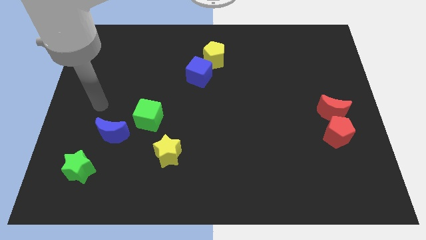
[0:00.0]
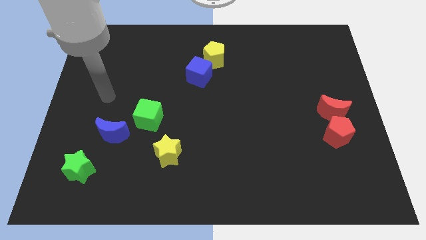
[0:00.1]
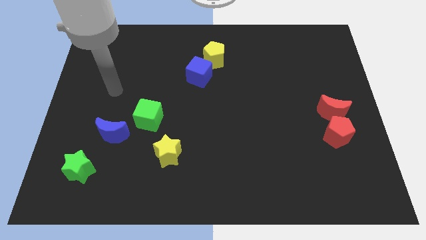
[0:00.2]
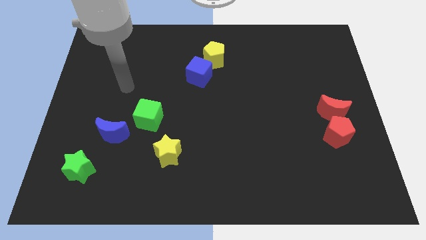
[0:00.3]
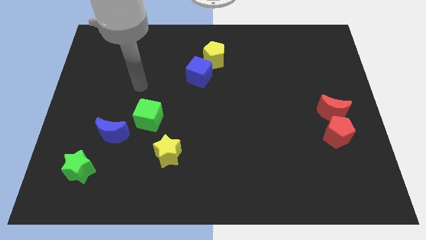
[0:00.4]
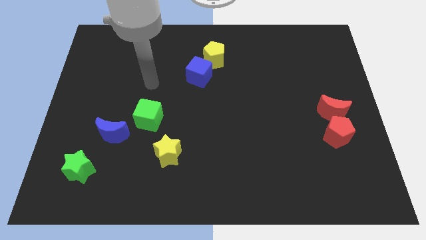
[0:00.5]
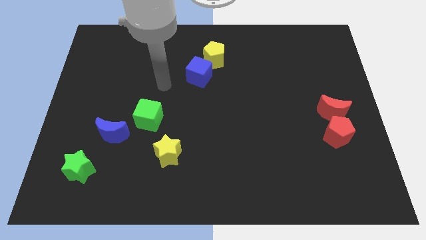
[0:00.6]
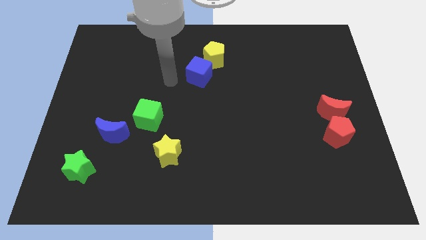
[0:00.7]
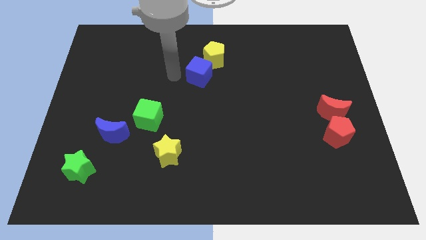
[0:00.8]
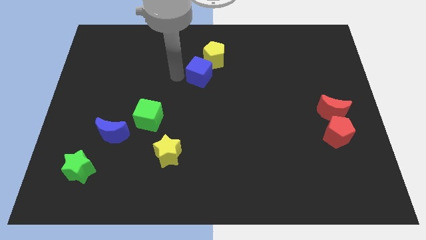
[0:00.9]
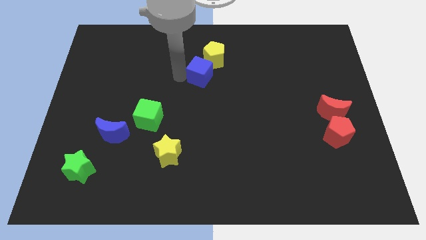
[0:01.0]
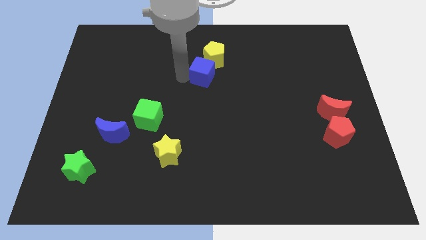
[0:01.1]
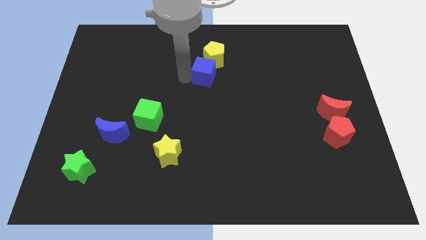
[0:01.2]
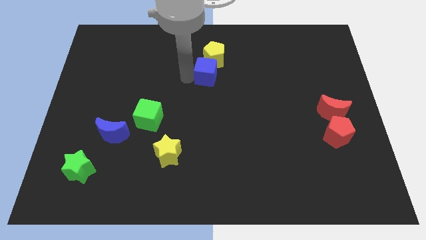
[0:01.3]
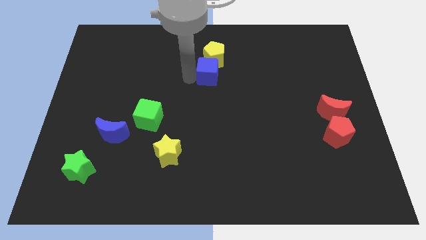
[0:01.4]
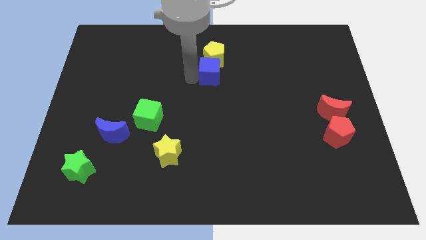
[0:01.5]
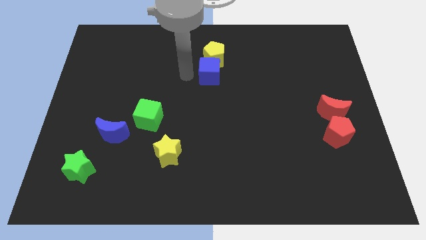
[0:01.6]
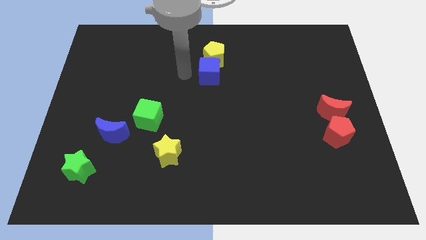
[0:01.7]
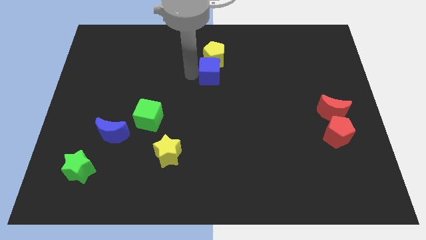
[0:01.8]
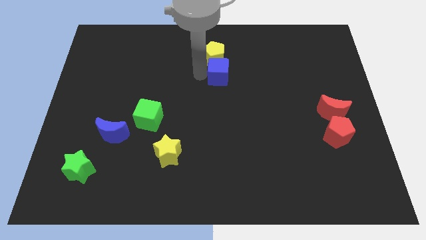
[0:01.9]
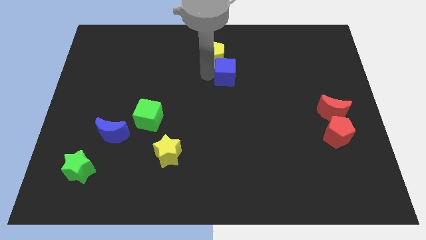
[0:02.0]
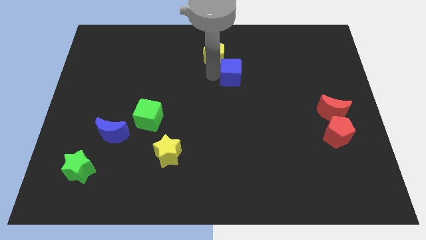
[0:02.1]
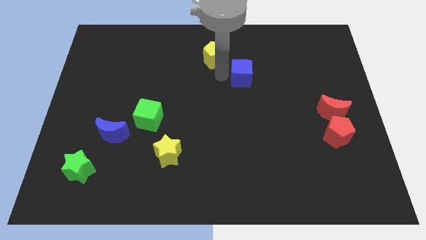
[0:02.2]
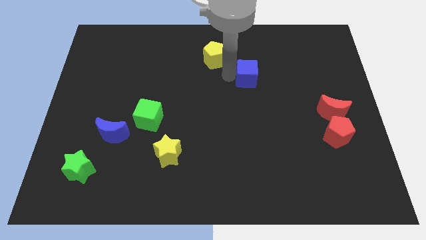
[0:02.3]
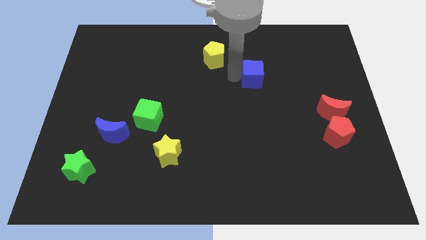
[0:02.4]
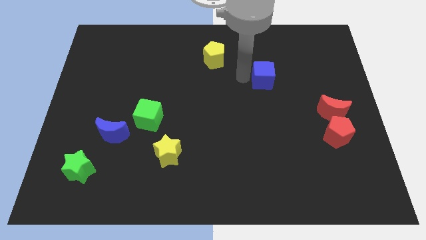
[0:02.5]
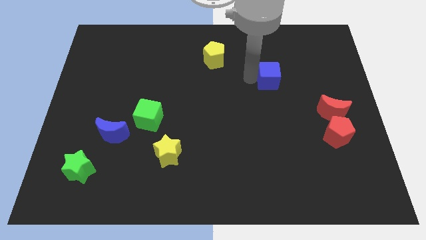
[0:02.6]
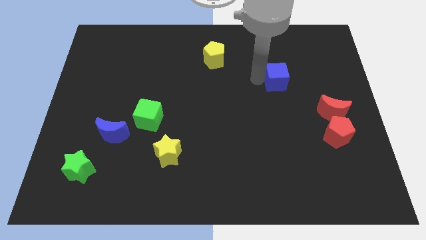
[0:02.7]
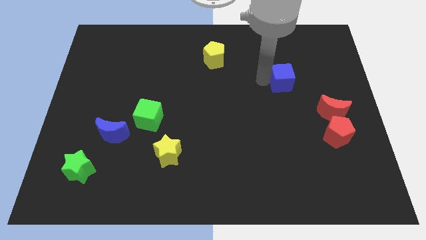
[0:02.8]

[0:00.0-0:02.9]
slide the blue cube right

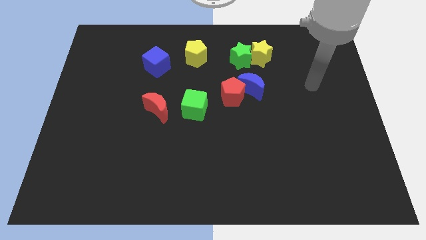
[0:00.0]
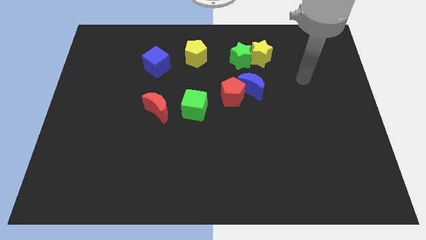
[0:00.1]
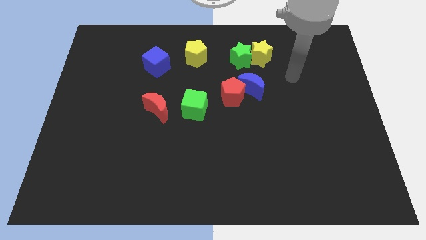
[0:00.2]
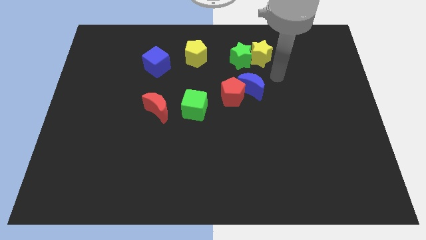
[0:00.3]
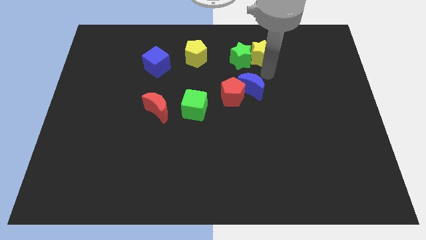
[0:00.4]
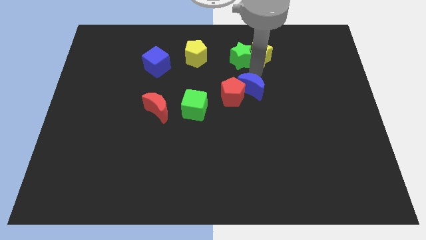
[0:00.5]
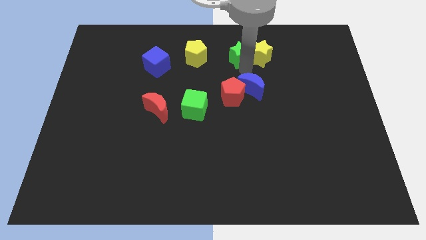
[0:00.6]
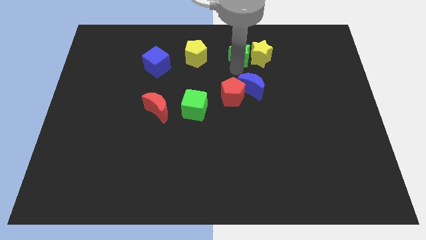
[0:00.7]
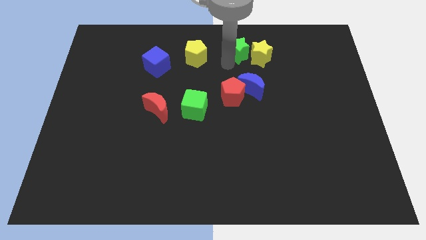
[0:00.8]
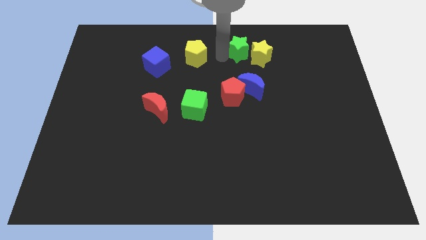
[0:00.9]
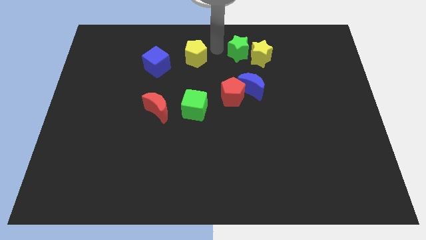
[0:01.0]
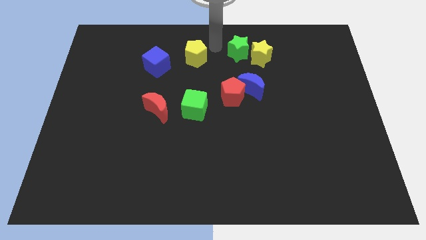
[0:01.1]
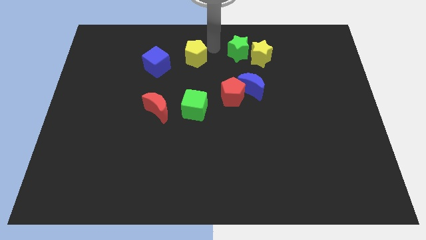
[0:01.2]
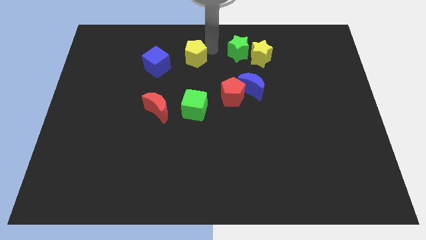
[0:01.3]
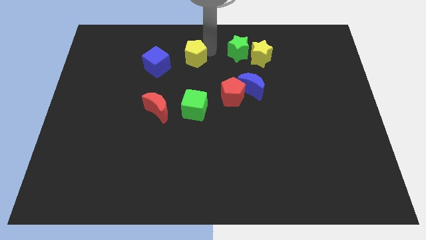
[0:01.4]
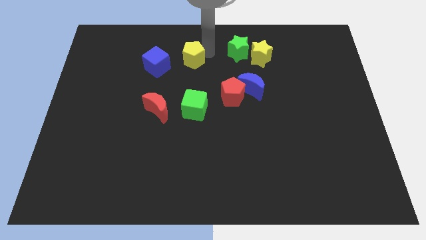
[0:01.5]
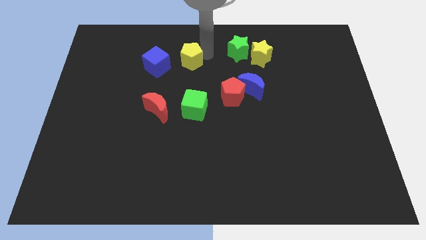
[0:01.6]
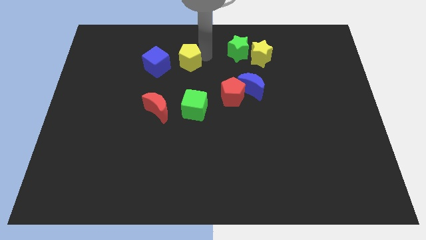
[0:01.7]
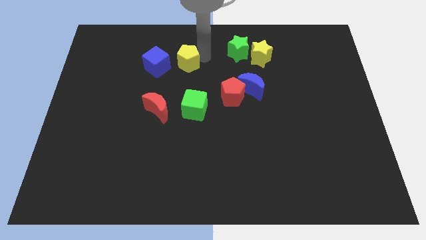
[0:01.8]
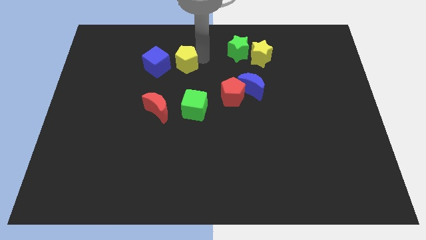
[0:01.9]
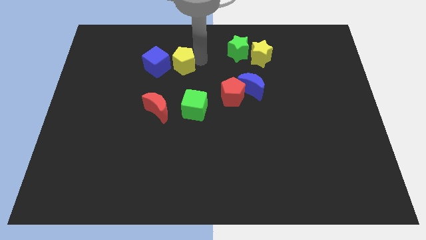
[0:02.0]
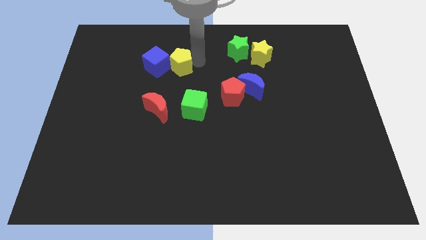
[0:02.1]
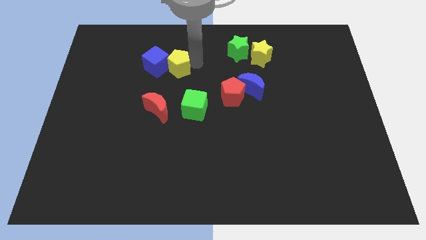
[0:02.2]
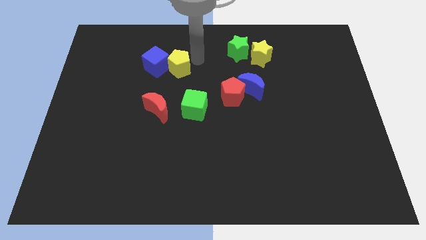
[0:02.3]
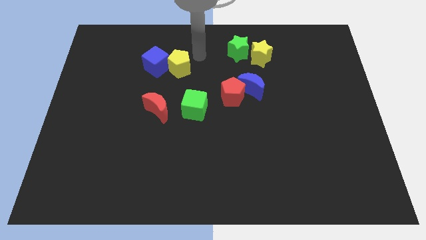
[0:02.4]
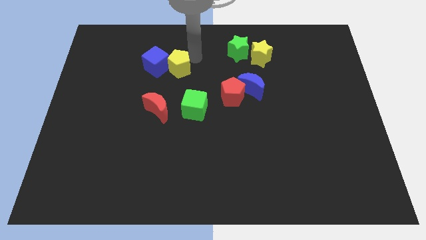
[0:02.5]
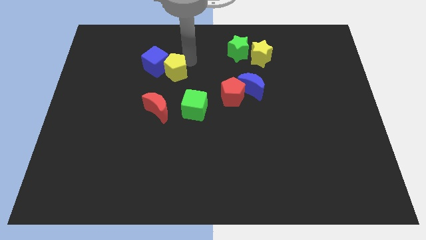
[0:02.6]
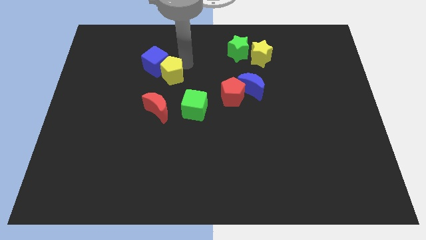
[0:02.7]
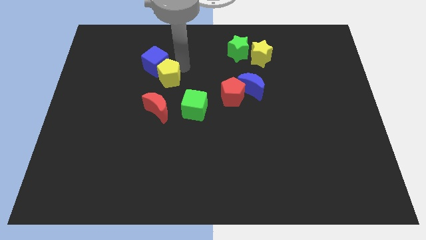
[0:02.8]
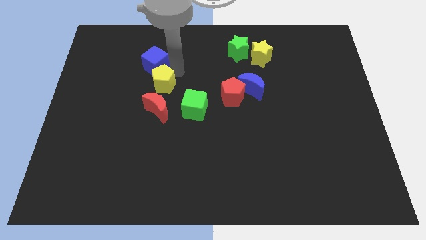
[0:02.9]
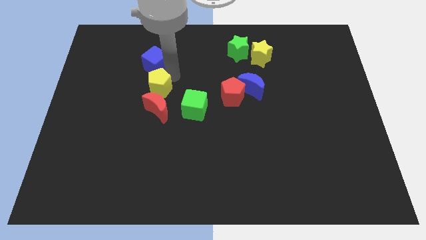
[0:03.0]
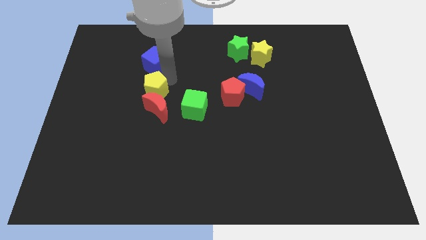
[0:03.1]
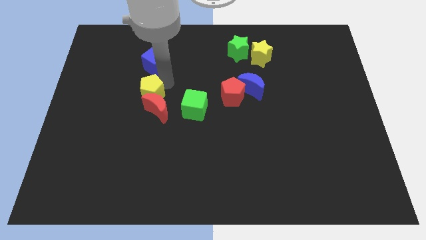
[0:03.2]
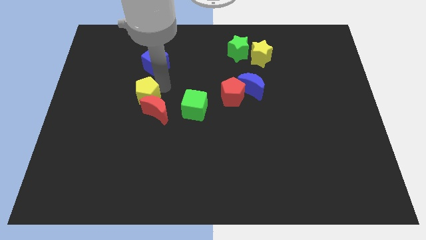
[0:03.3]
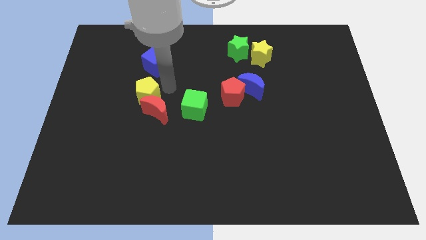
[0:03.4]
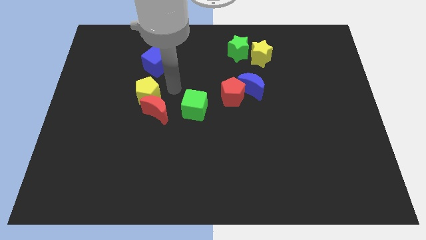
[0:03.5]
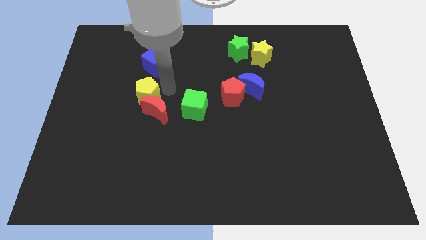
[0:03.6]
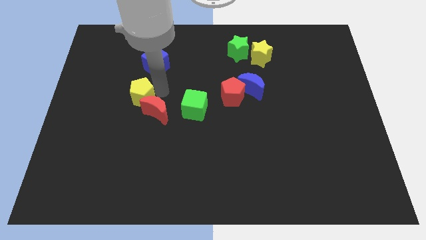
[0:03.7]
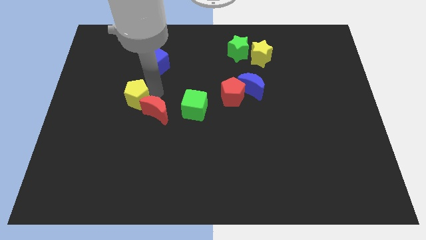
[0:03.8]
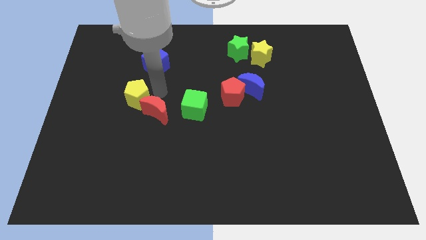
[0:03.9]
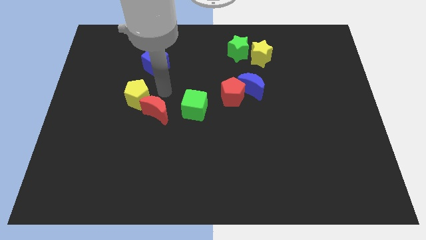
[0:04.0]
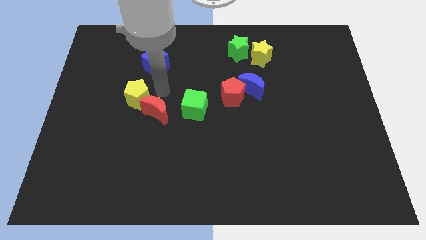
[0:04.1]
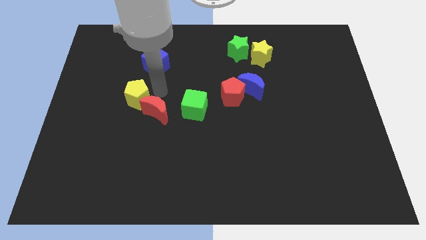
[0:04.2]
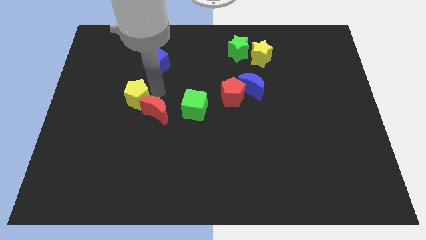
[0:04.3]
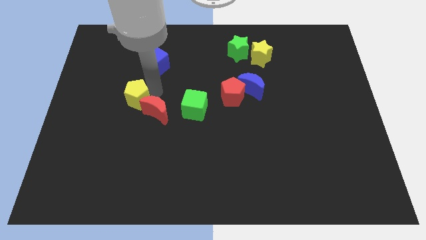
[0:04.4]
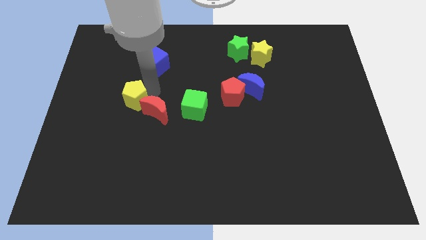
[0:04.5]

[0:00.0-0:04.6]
push the yellow pentagon down and then to the left

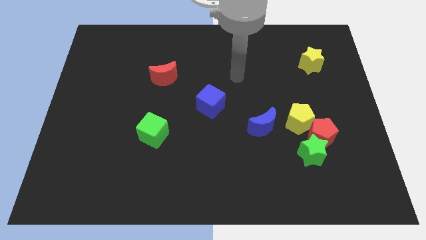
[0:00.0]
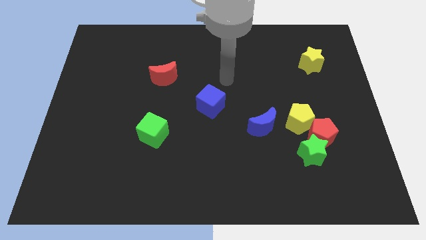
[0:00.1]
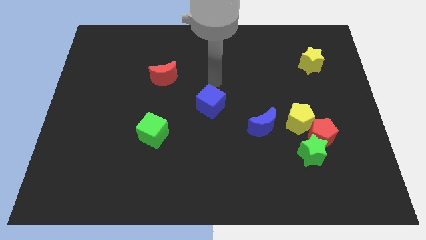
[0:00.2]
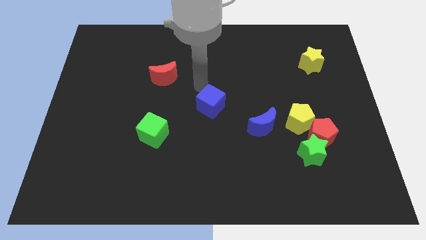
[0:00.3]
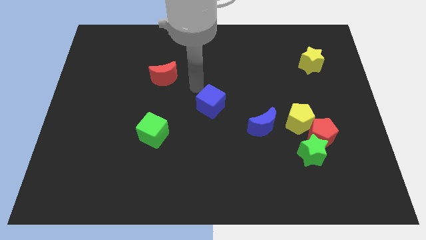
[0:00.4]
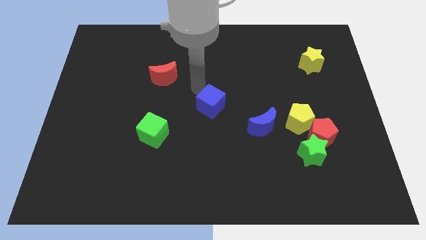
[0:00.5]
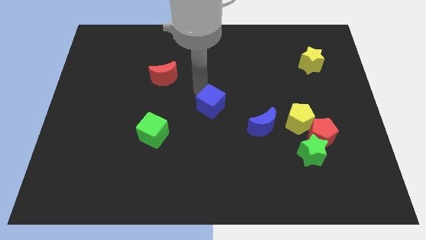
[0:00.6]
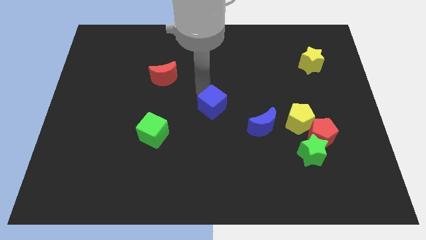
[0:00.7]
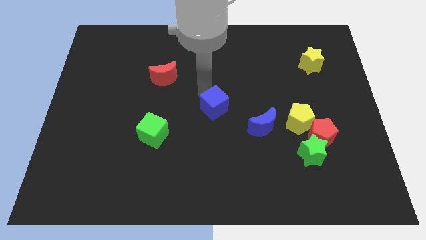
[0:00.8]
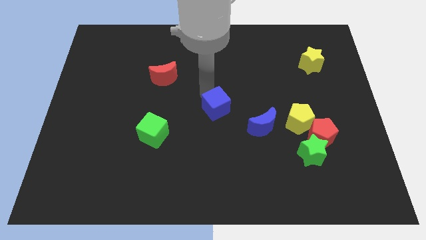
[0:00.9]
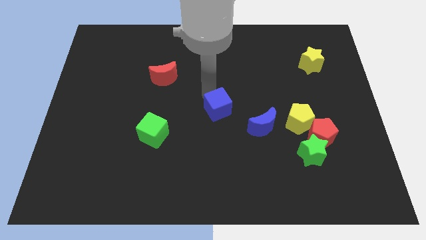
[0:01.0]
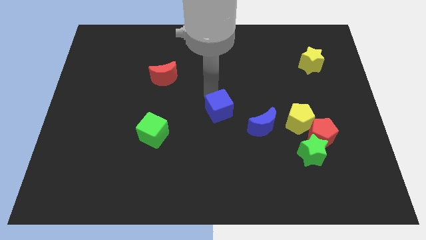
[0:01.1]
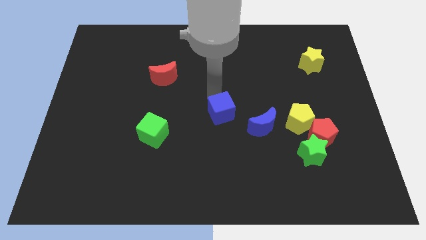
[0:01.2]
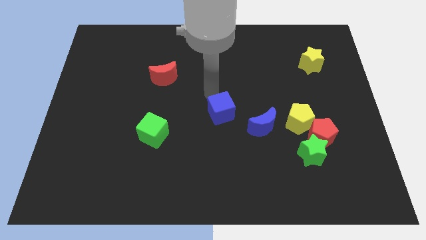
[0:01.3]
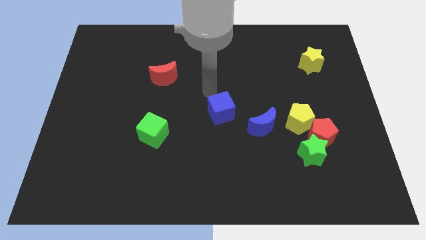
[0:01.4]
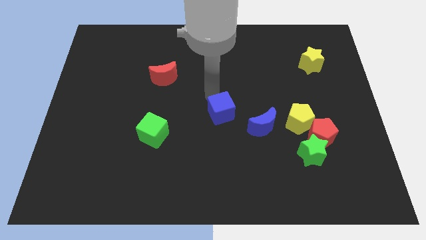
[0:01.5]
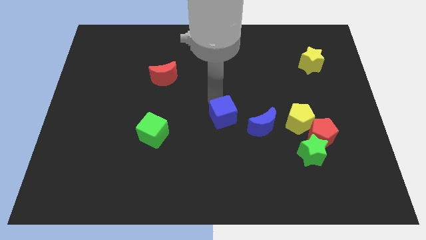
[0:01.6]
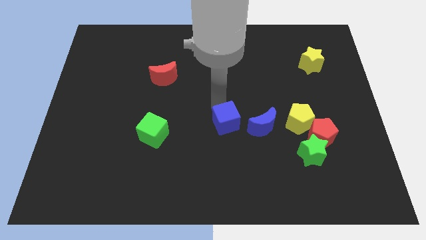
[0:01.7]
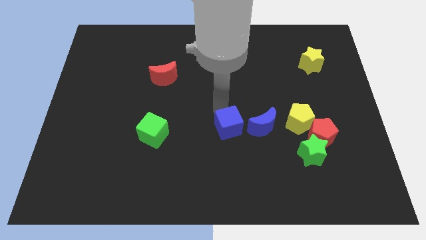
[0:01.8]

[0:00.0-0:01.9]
push the blue cube a little bit down and to the right diagonally
